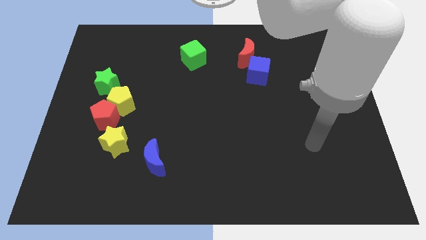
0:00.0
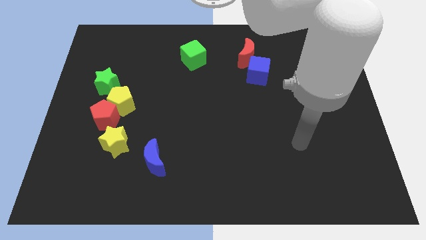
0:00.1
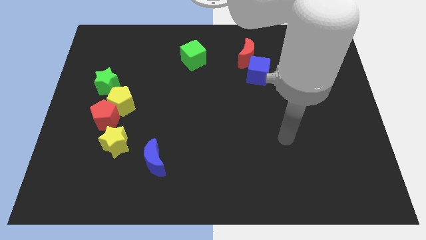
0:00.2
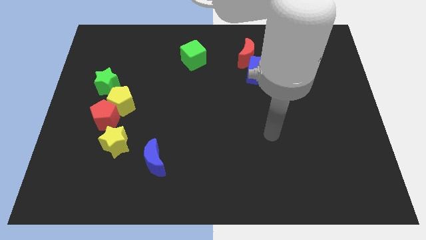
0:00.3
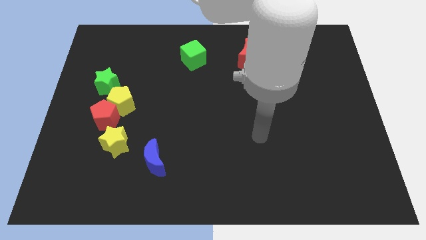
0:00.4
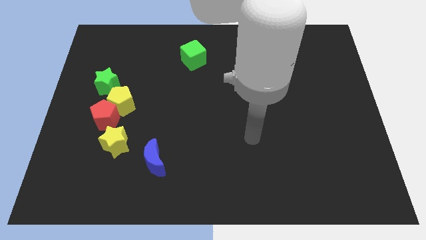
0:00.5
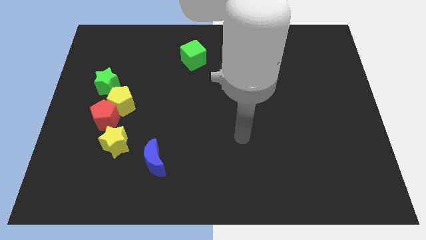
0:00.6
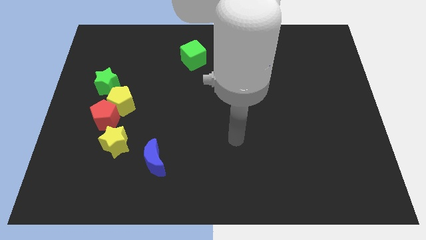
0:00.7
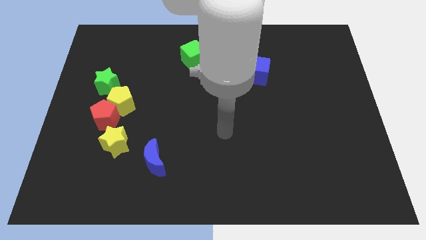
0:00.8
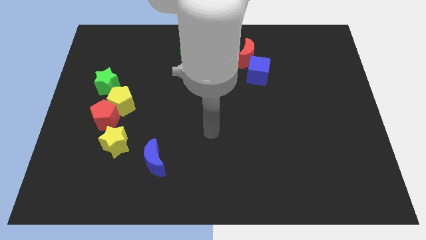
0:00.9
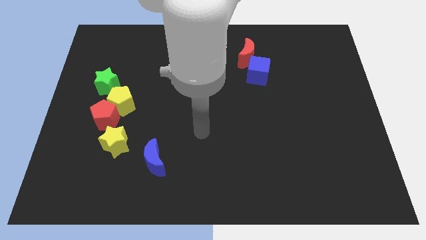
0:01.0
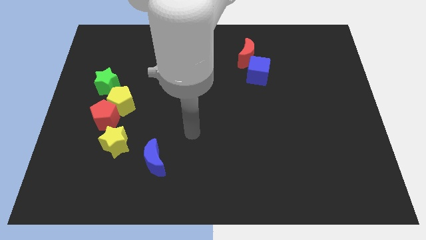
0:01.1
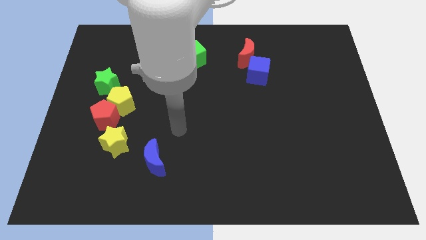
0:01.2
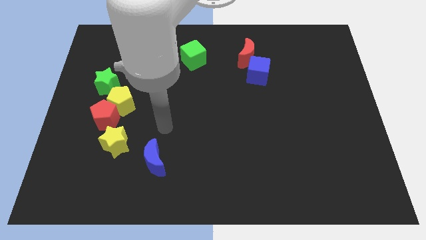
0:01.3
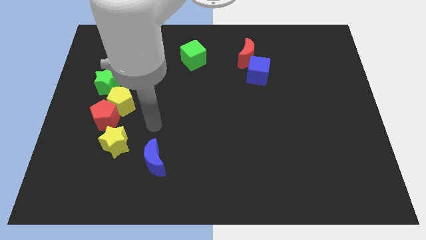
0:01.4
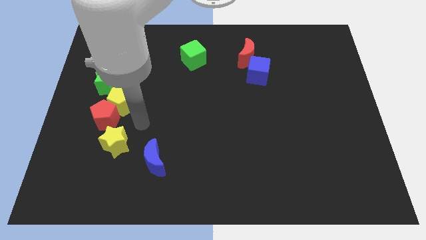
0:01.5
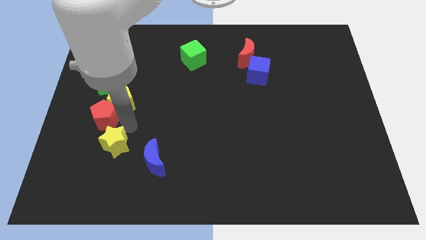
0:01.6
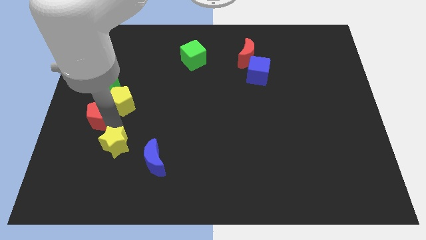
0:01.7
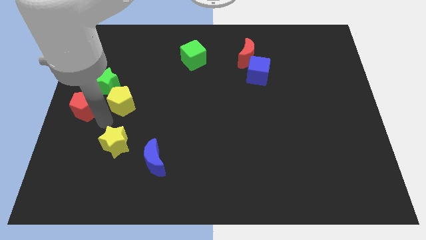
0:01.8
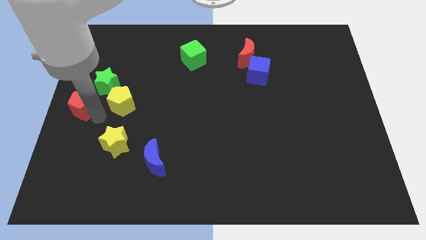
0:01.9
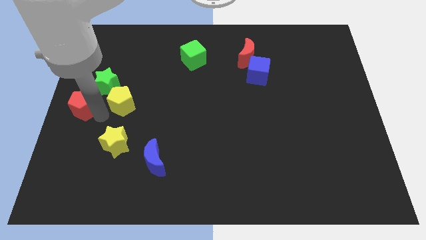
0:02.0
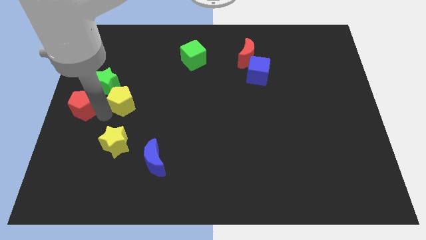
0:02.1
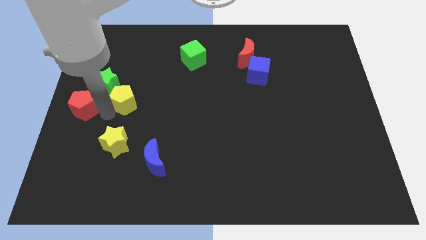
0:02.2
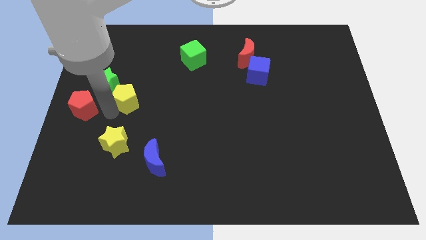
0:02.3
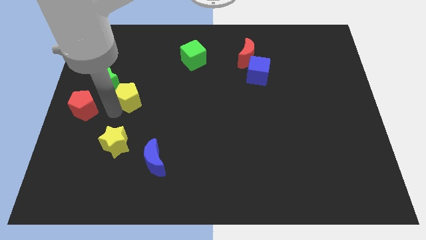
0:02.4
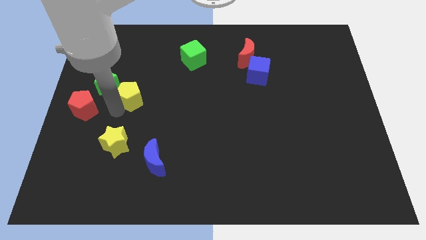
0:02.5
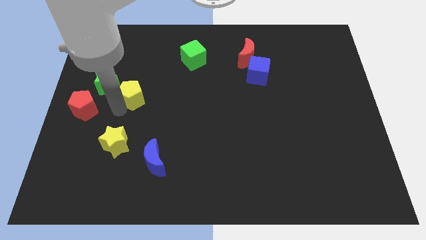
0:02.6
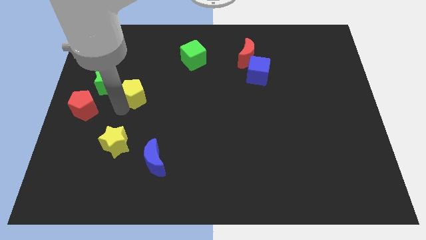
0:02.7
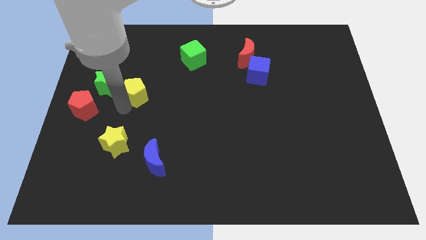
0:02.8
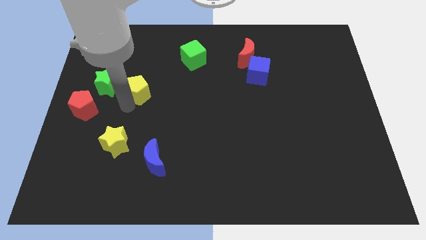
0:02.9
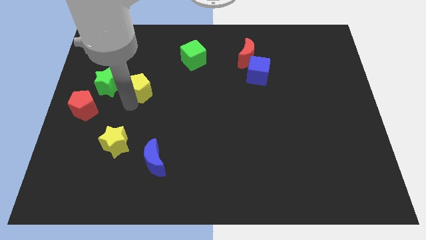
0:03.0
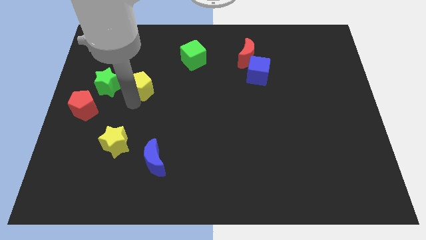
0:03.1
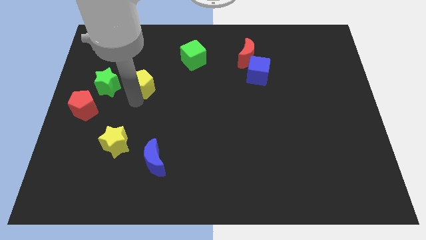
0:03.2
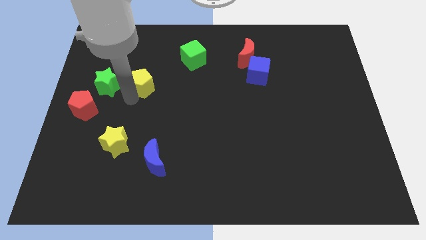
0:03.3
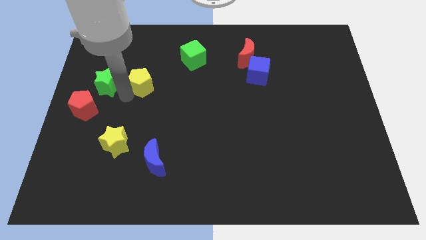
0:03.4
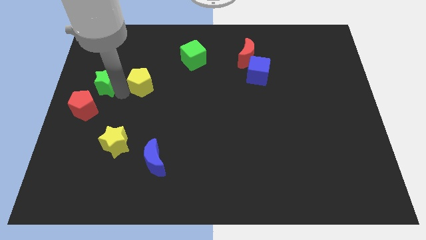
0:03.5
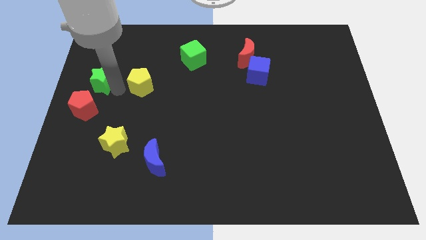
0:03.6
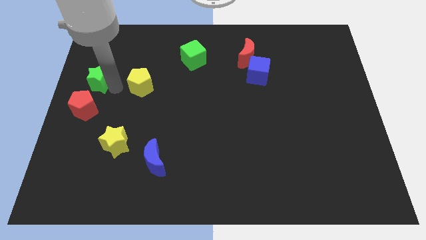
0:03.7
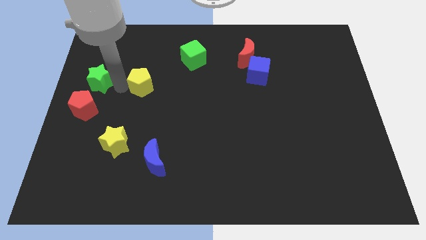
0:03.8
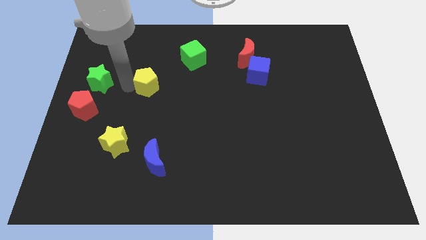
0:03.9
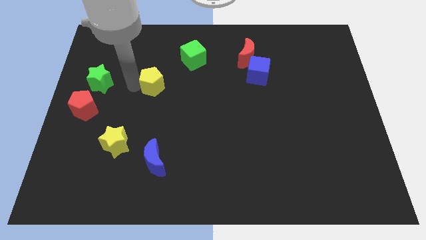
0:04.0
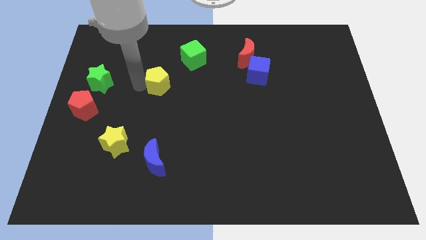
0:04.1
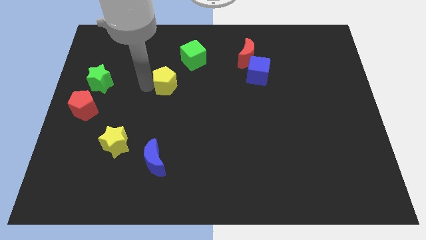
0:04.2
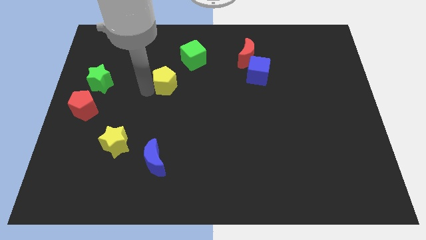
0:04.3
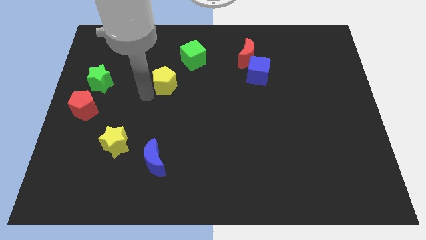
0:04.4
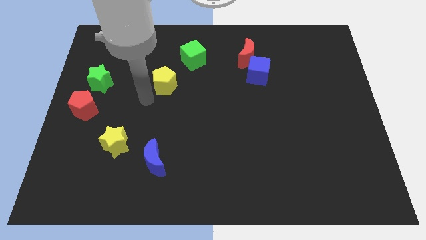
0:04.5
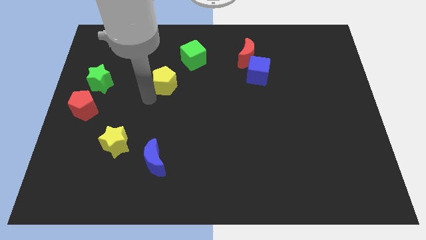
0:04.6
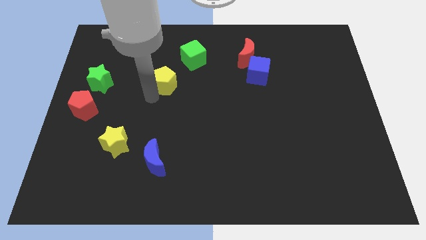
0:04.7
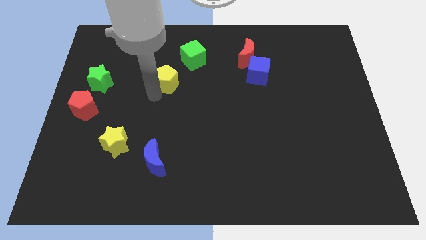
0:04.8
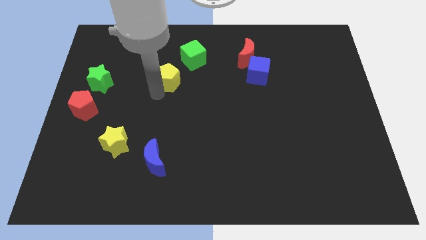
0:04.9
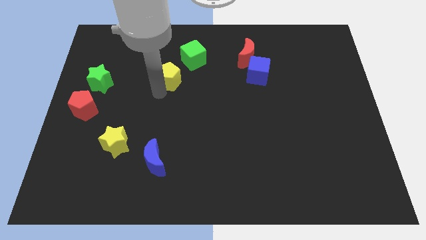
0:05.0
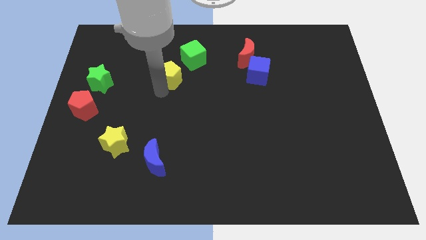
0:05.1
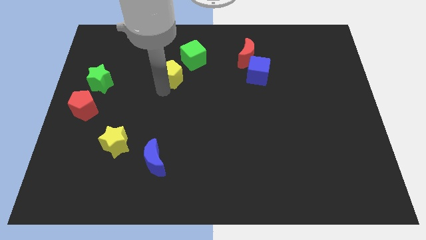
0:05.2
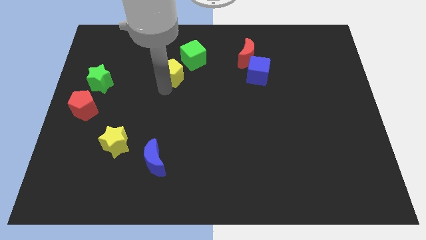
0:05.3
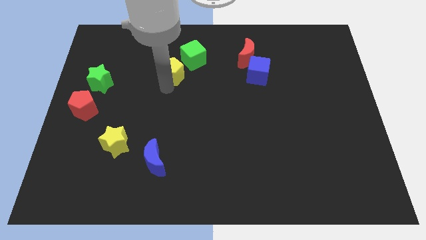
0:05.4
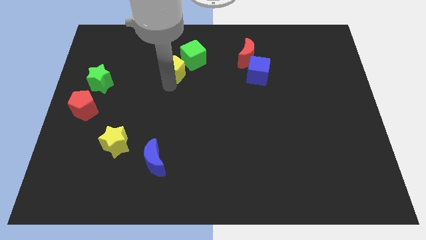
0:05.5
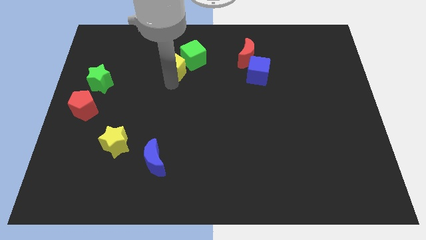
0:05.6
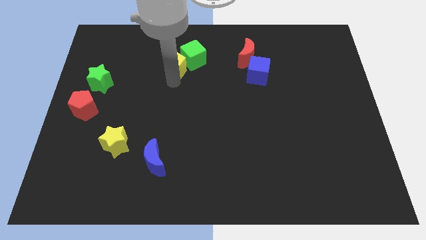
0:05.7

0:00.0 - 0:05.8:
push the yellow pentagon to the green cube

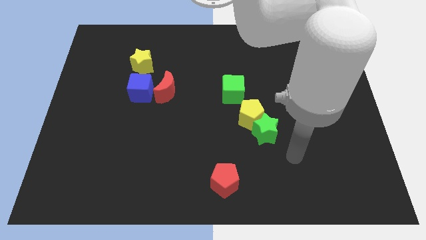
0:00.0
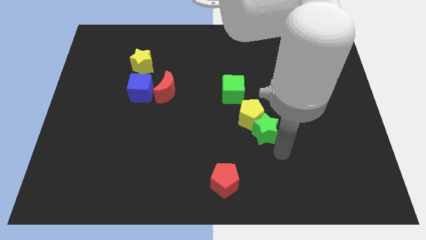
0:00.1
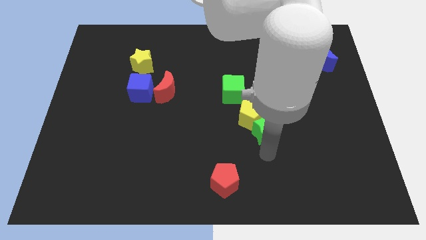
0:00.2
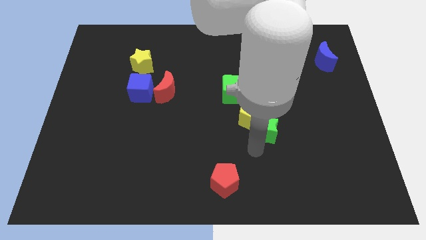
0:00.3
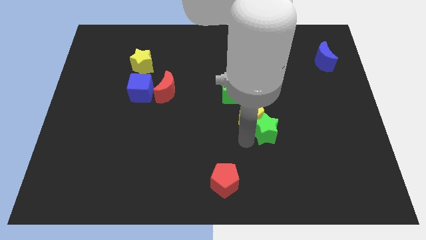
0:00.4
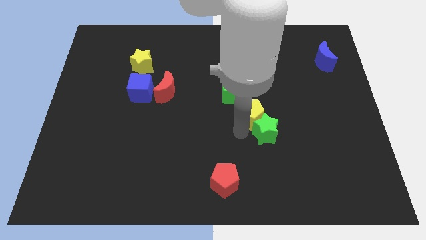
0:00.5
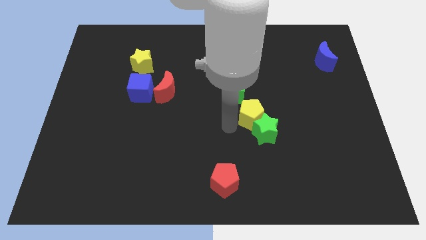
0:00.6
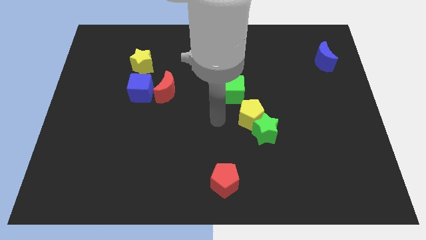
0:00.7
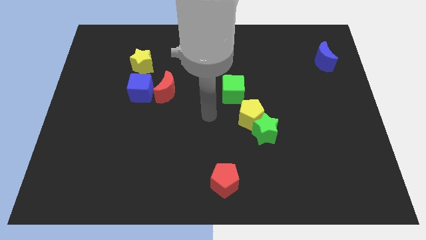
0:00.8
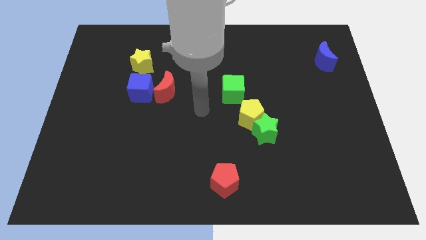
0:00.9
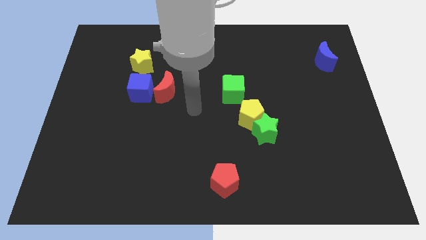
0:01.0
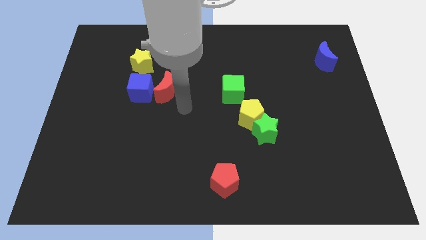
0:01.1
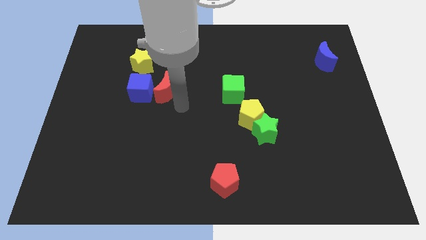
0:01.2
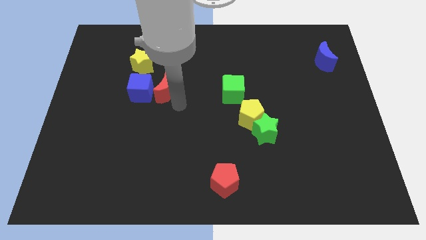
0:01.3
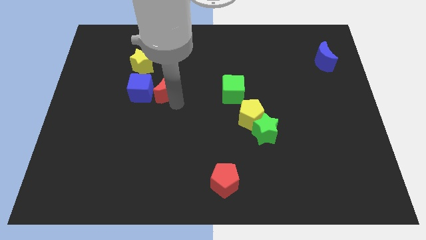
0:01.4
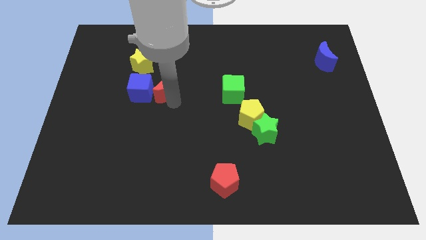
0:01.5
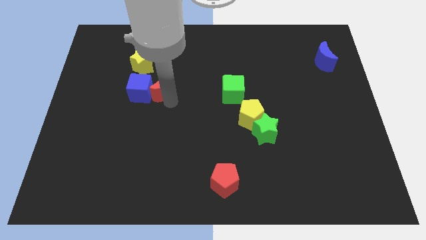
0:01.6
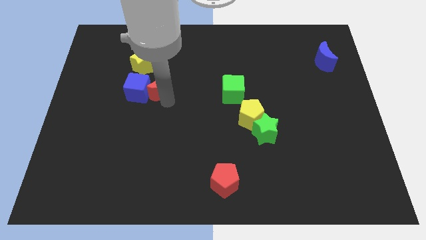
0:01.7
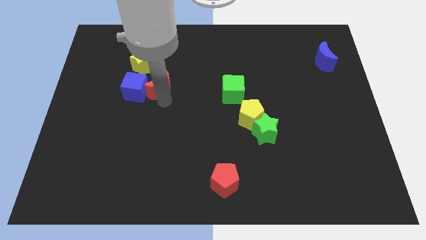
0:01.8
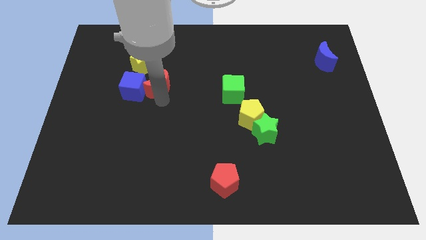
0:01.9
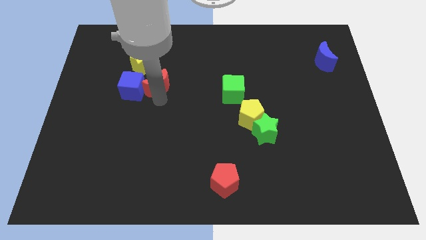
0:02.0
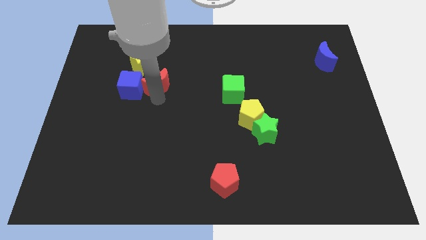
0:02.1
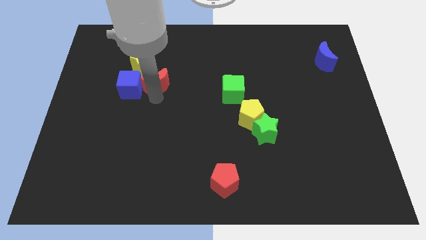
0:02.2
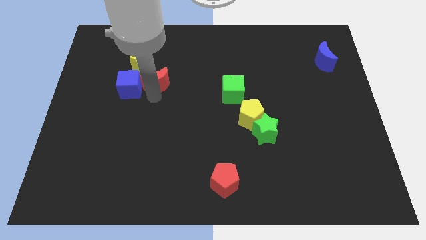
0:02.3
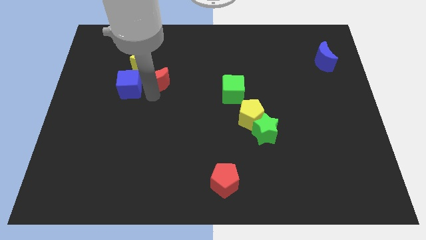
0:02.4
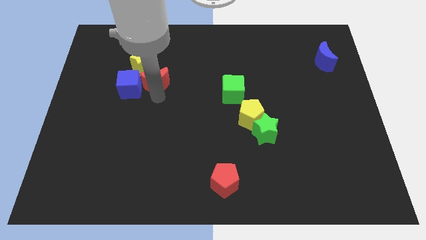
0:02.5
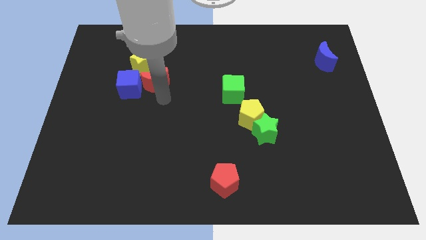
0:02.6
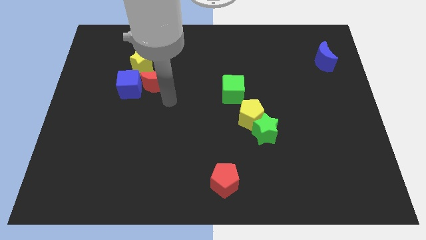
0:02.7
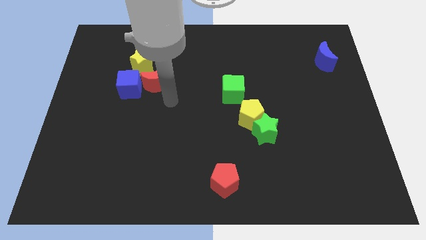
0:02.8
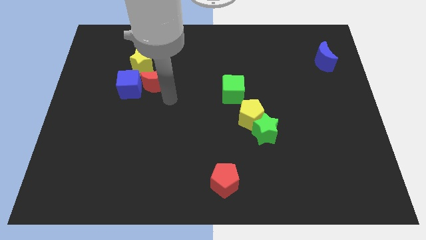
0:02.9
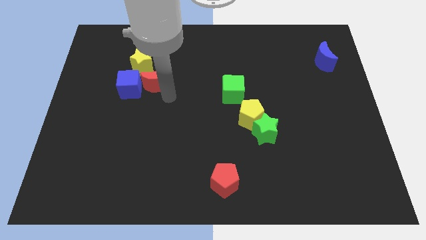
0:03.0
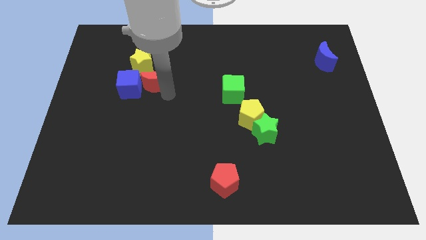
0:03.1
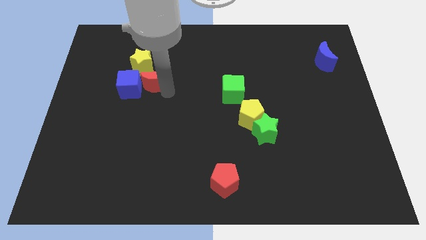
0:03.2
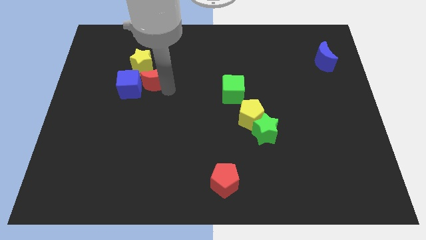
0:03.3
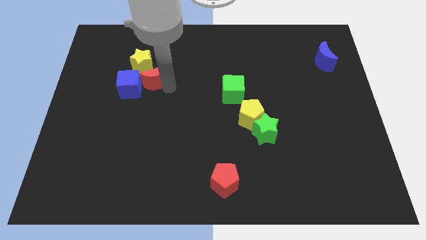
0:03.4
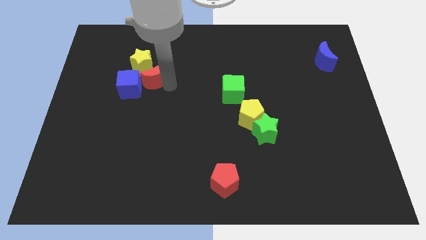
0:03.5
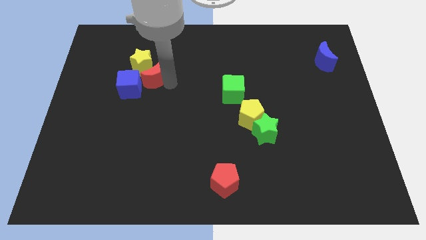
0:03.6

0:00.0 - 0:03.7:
move the red moon to the yellow star
